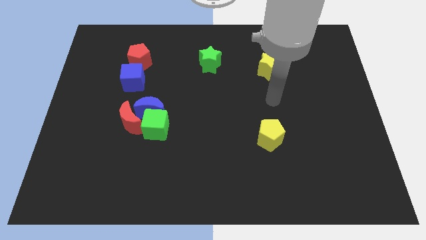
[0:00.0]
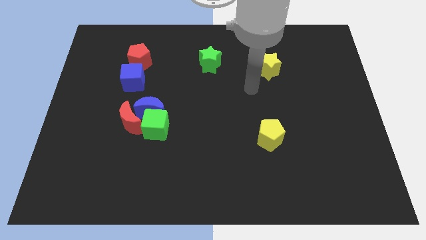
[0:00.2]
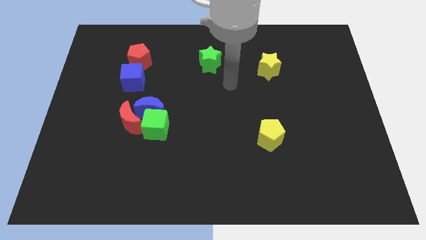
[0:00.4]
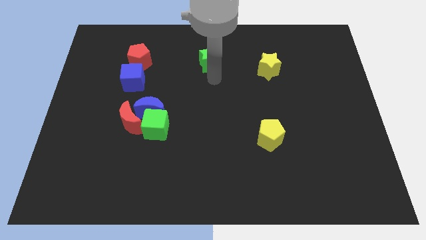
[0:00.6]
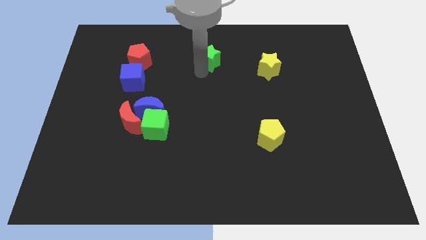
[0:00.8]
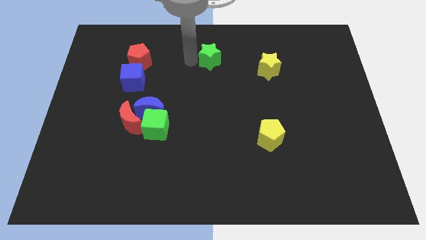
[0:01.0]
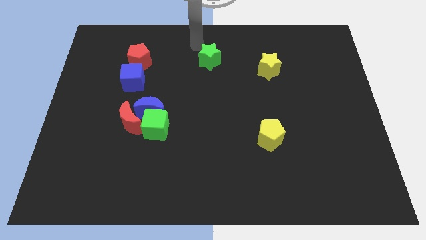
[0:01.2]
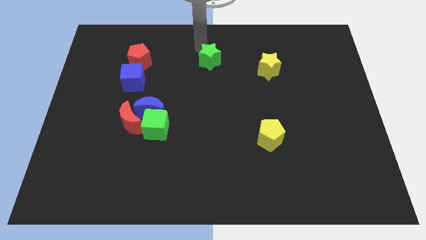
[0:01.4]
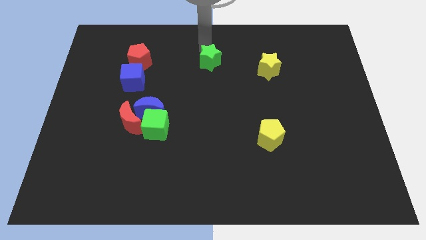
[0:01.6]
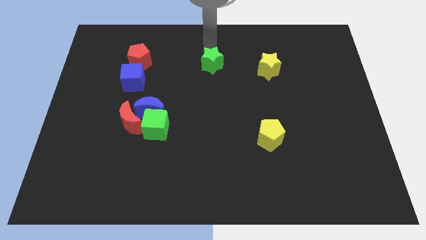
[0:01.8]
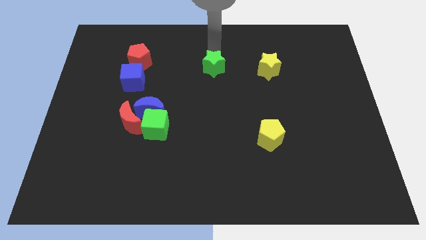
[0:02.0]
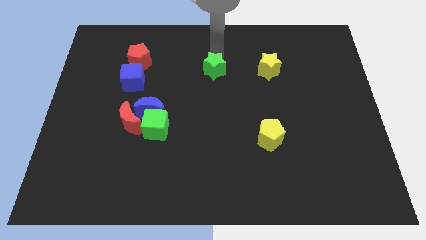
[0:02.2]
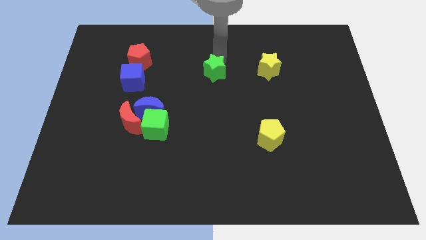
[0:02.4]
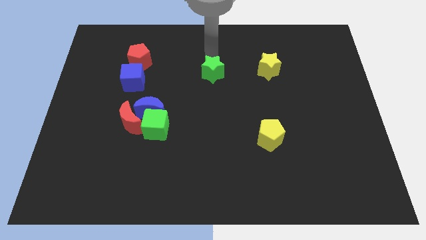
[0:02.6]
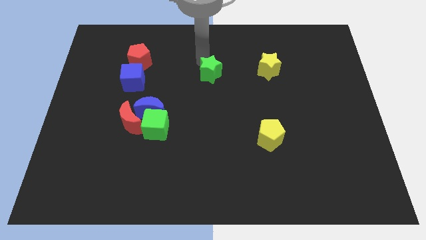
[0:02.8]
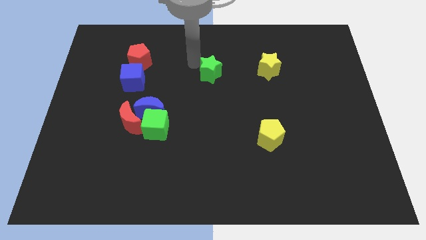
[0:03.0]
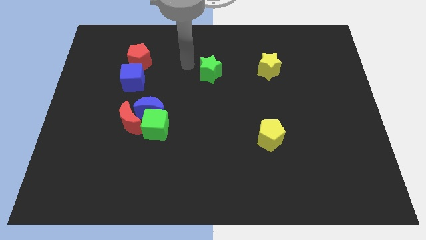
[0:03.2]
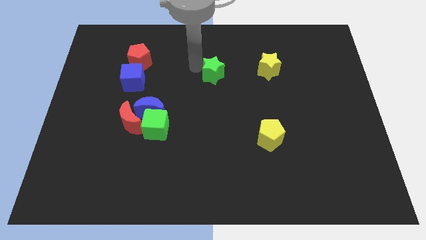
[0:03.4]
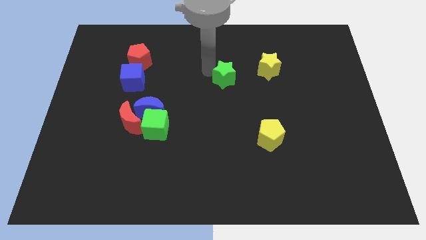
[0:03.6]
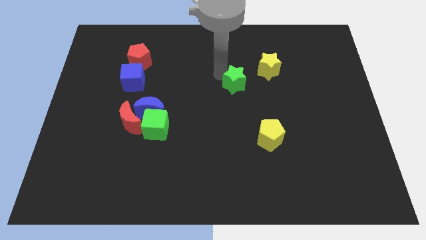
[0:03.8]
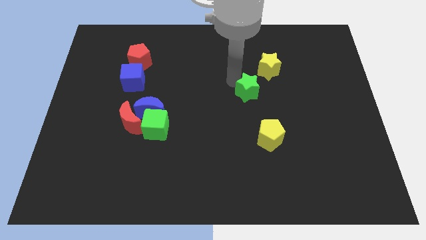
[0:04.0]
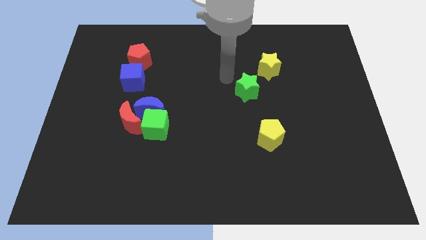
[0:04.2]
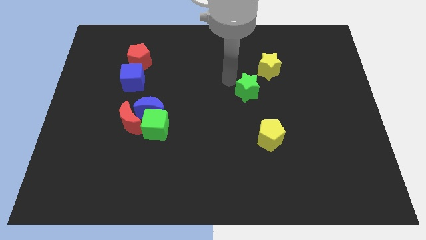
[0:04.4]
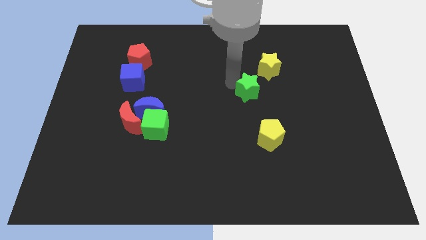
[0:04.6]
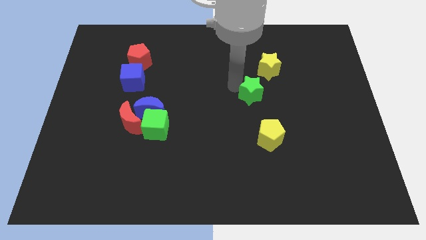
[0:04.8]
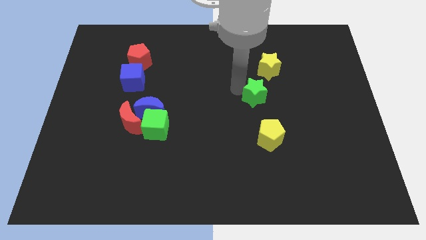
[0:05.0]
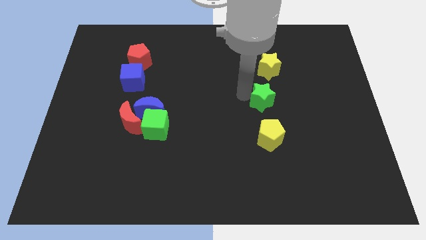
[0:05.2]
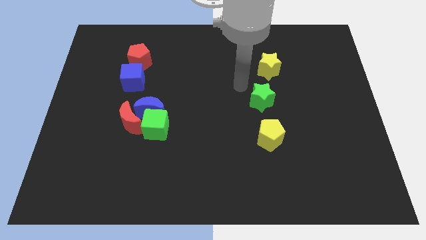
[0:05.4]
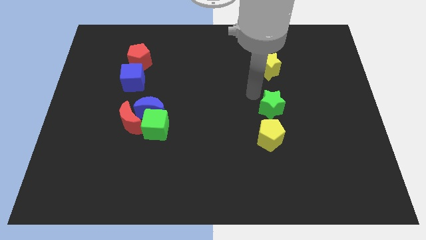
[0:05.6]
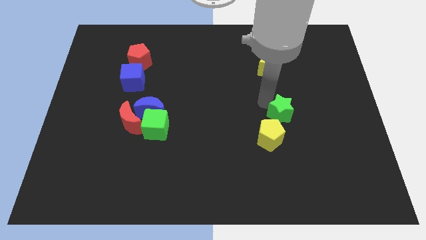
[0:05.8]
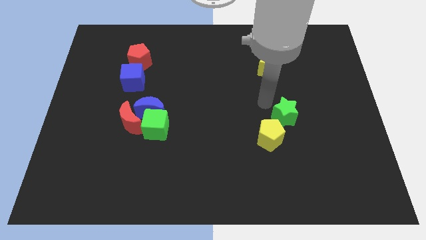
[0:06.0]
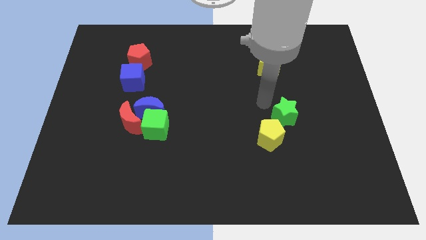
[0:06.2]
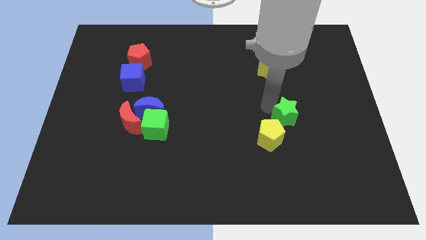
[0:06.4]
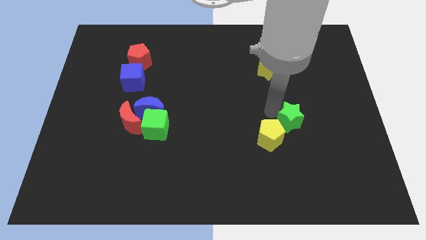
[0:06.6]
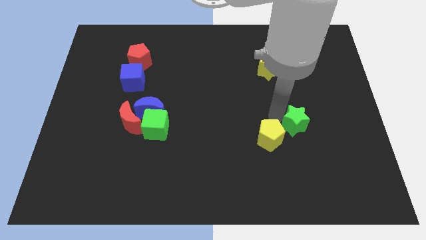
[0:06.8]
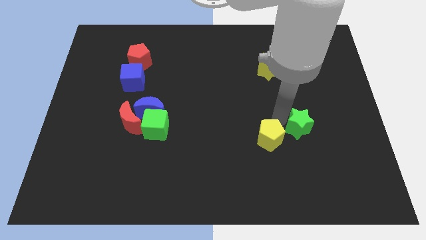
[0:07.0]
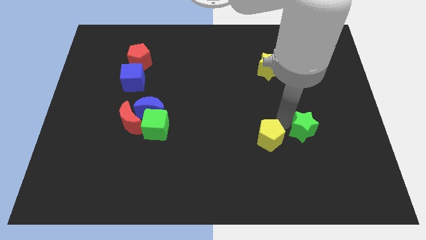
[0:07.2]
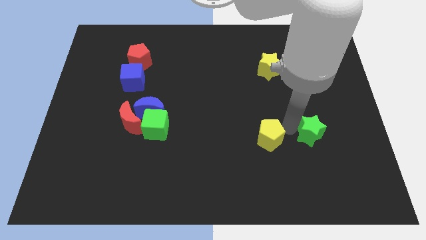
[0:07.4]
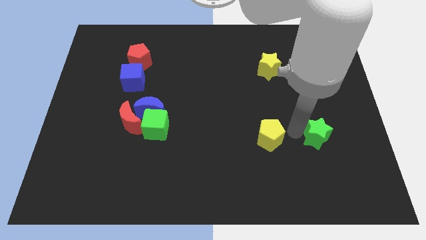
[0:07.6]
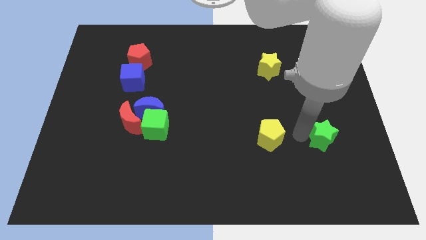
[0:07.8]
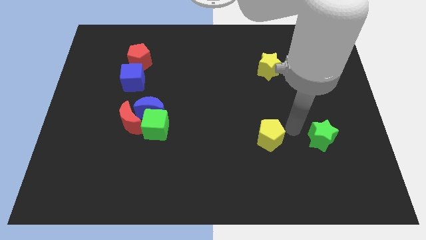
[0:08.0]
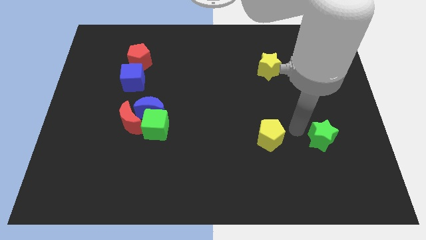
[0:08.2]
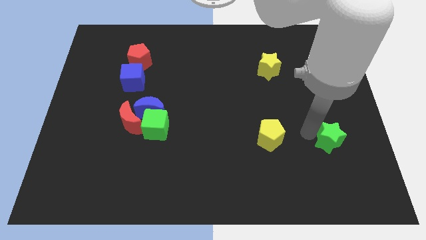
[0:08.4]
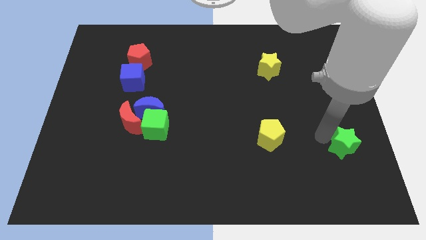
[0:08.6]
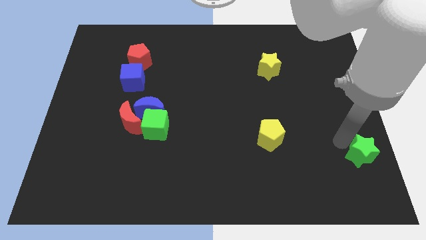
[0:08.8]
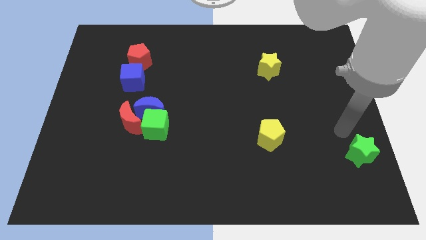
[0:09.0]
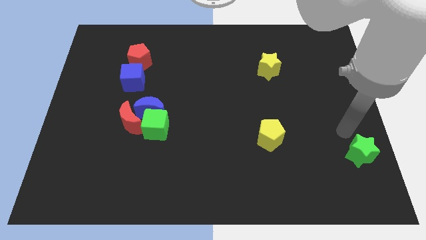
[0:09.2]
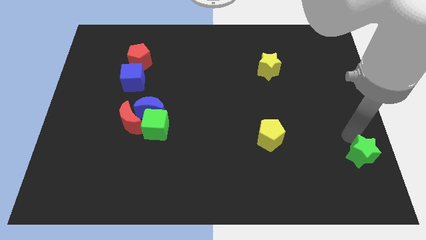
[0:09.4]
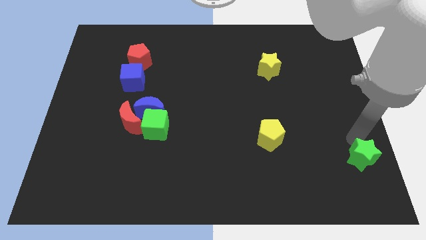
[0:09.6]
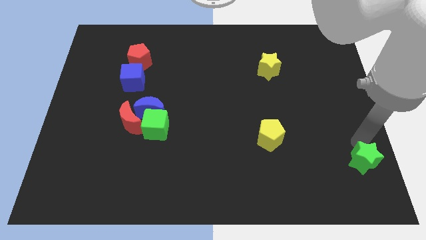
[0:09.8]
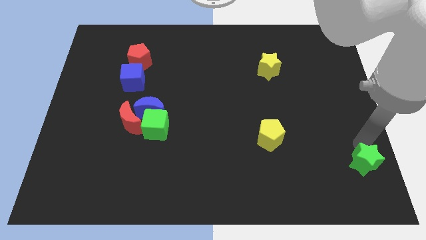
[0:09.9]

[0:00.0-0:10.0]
push the green star to the lower right corner

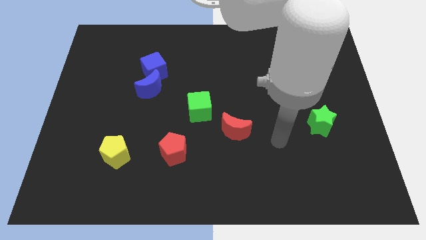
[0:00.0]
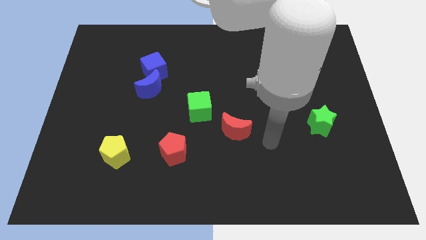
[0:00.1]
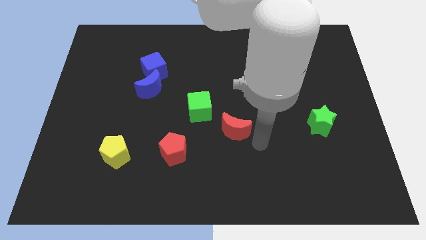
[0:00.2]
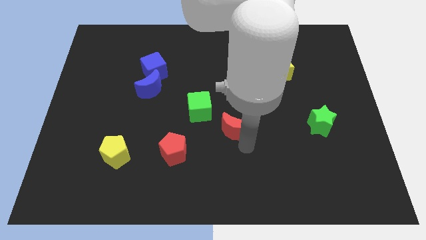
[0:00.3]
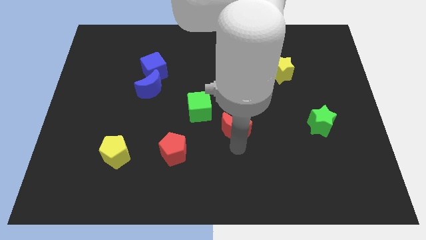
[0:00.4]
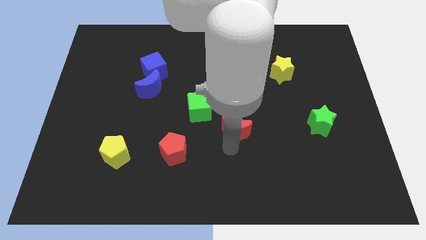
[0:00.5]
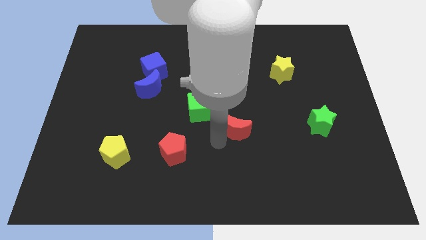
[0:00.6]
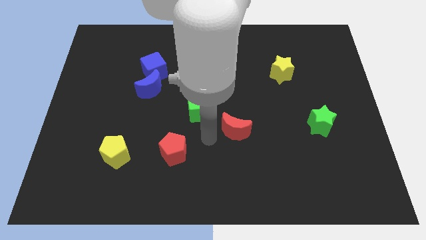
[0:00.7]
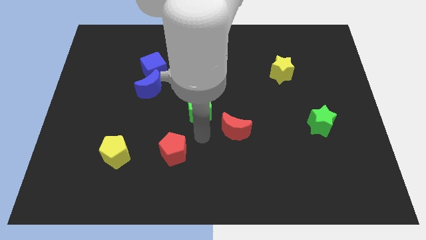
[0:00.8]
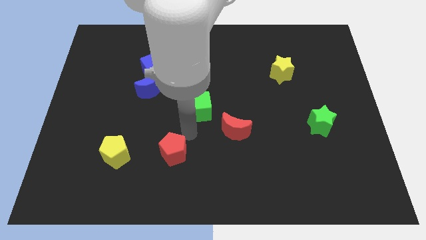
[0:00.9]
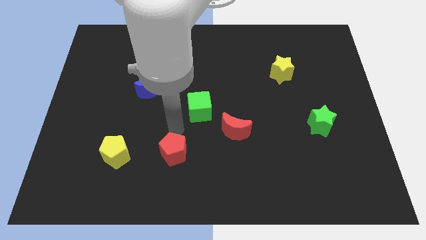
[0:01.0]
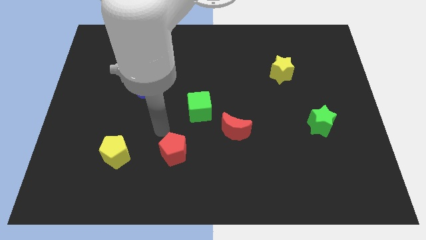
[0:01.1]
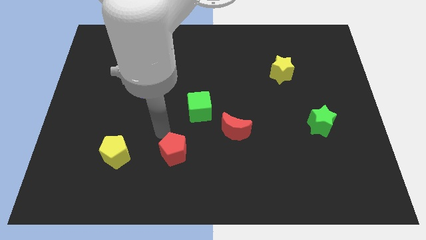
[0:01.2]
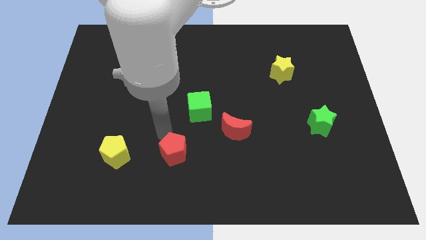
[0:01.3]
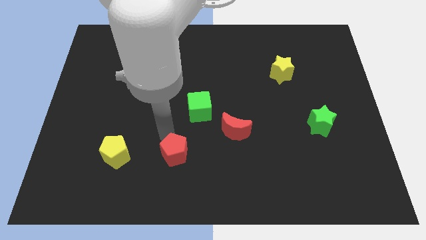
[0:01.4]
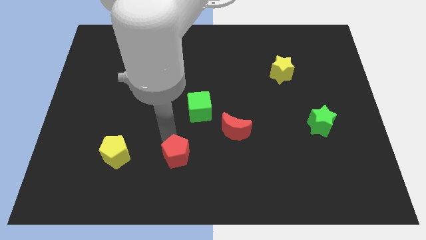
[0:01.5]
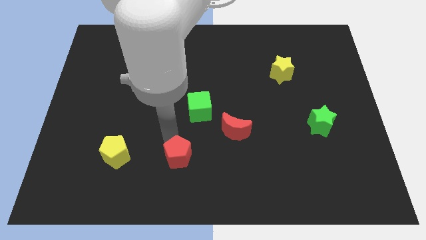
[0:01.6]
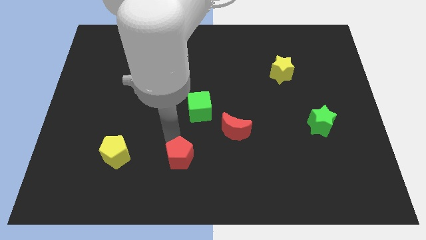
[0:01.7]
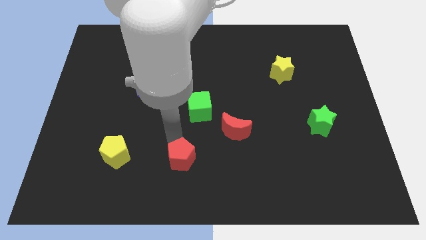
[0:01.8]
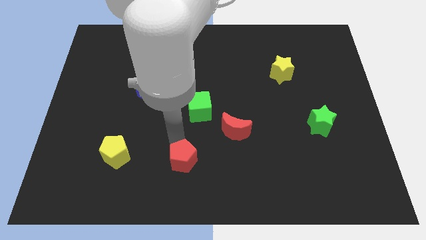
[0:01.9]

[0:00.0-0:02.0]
slide the red pentagon to the bottom side
